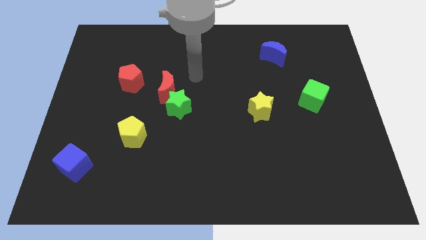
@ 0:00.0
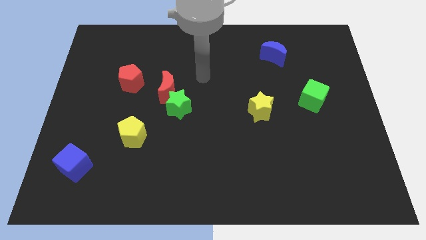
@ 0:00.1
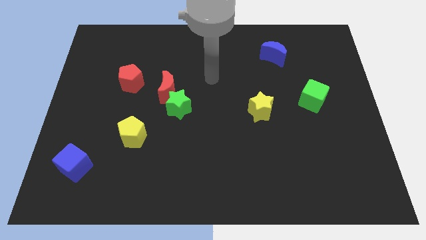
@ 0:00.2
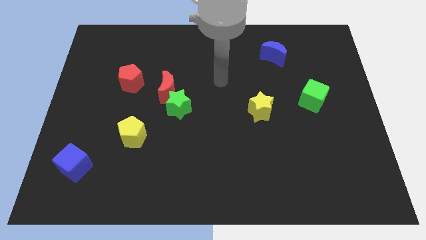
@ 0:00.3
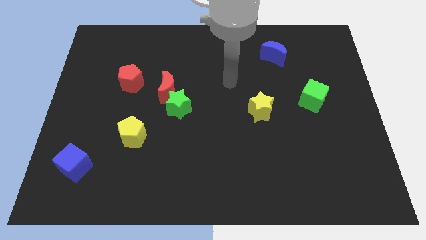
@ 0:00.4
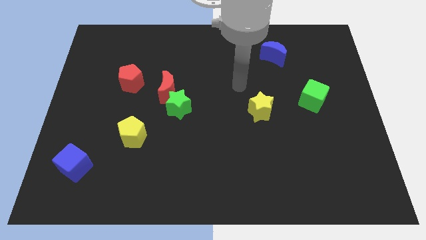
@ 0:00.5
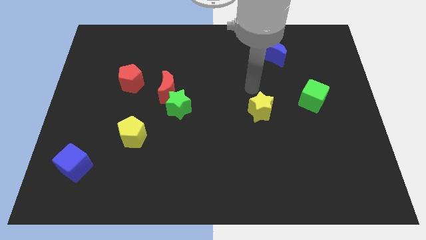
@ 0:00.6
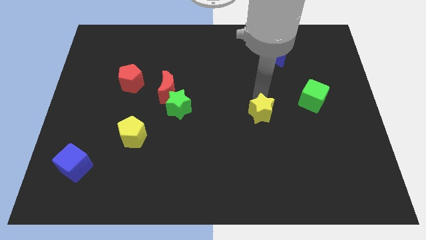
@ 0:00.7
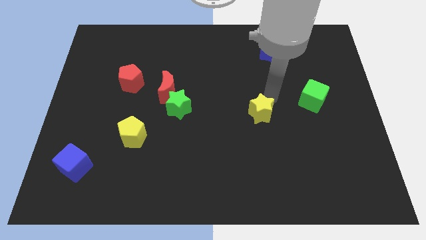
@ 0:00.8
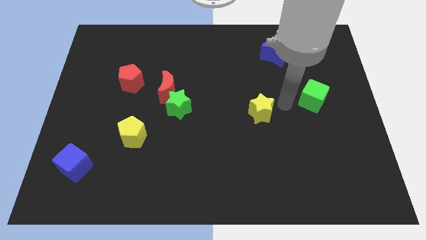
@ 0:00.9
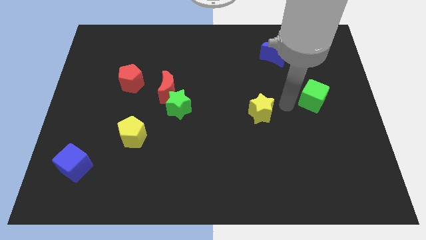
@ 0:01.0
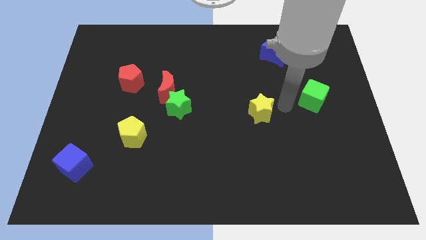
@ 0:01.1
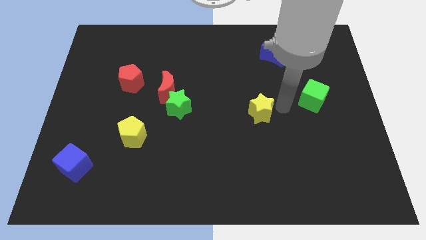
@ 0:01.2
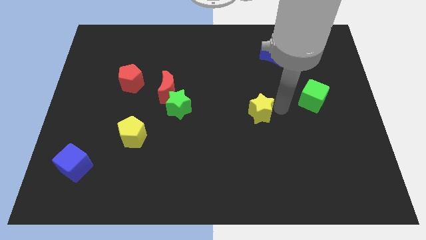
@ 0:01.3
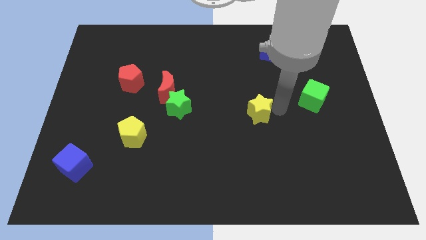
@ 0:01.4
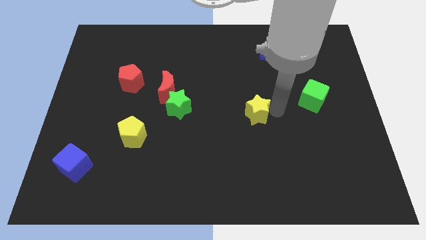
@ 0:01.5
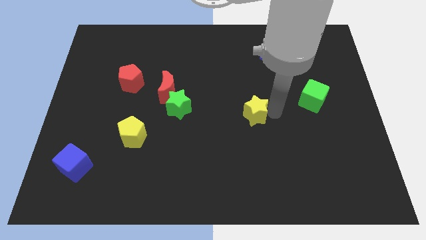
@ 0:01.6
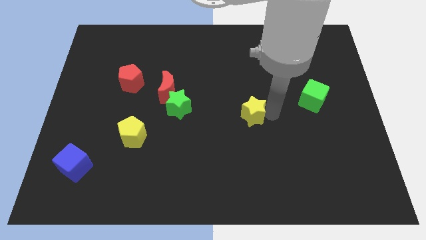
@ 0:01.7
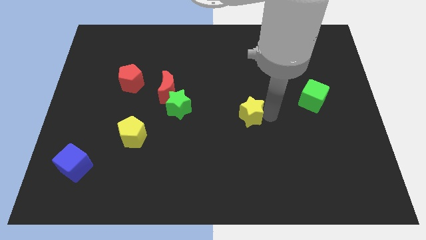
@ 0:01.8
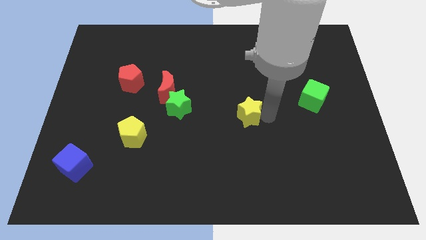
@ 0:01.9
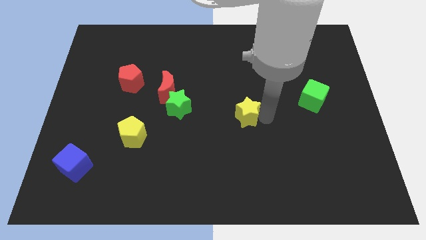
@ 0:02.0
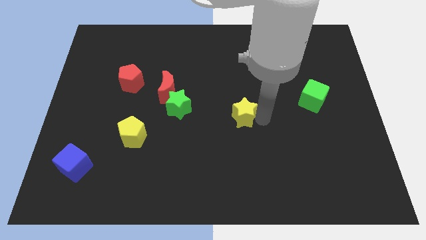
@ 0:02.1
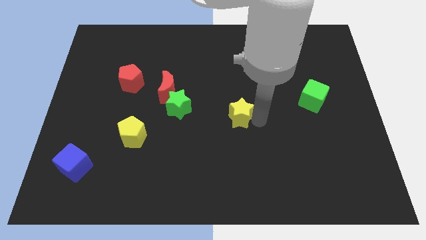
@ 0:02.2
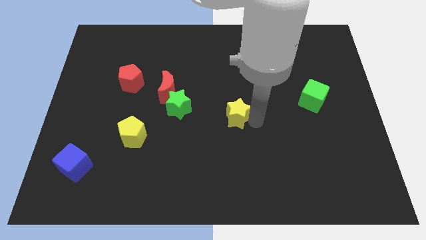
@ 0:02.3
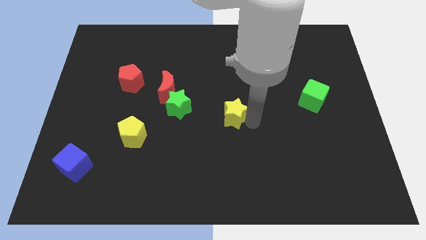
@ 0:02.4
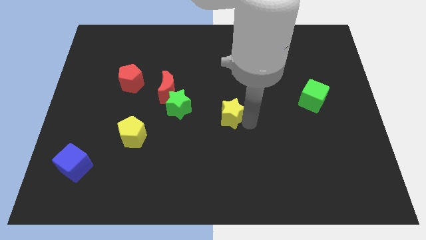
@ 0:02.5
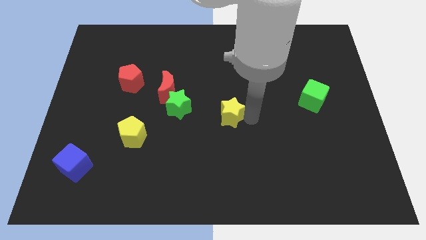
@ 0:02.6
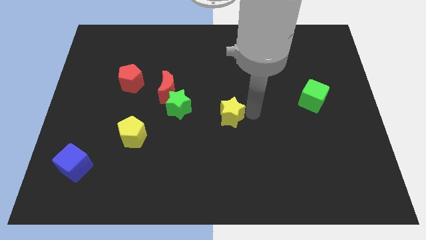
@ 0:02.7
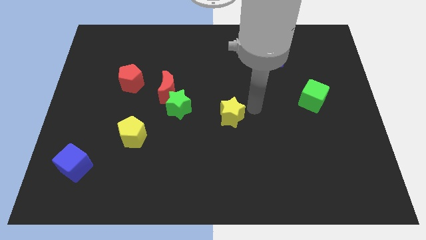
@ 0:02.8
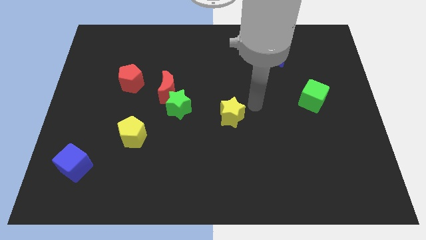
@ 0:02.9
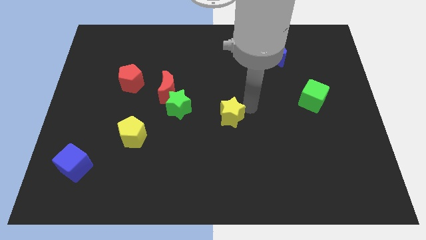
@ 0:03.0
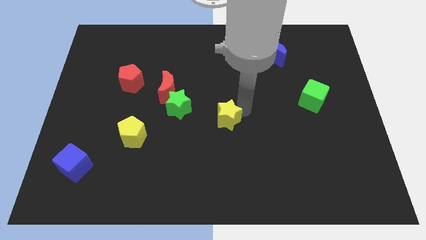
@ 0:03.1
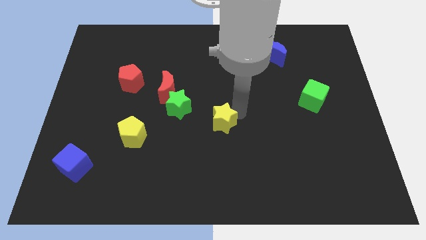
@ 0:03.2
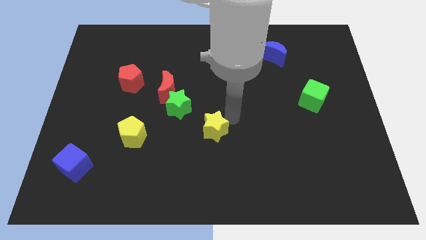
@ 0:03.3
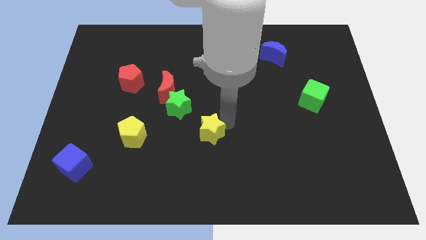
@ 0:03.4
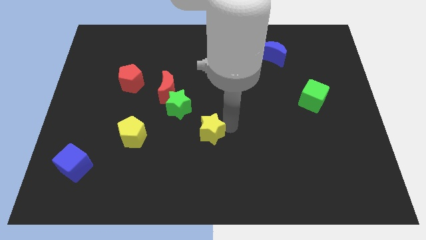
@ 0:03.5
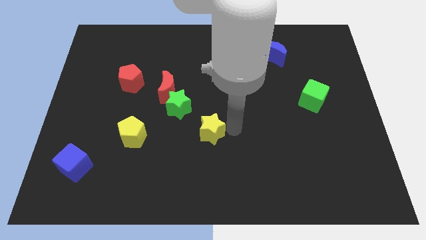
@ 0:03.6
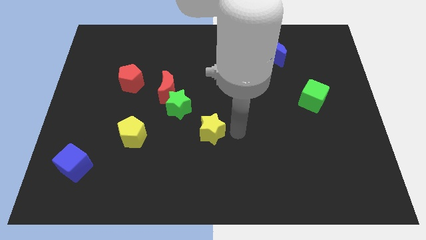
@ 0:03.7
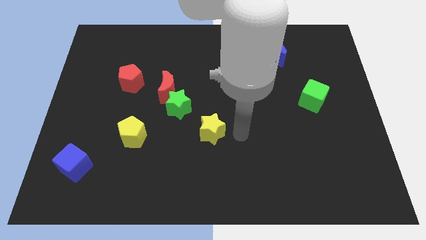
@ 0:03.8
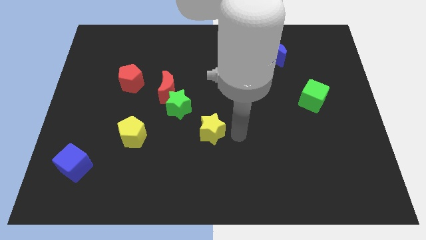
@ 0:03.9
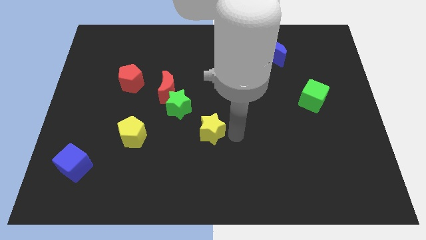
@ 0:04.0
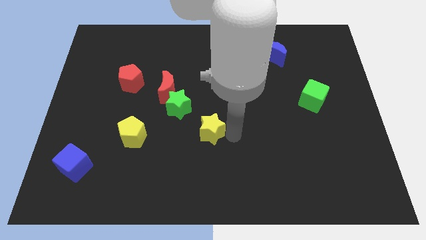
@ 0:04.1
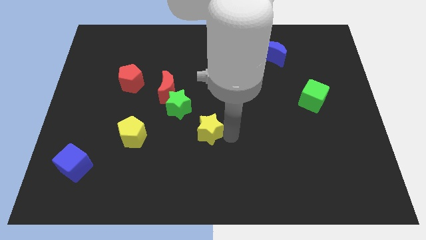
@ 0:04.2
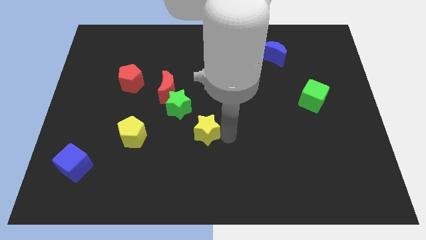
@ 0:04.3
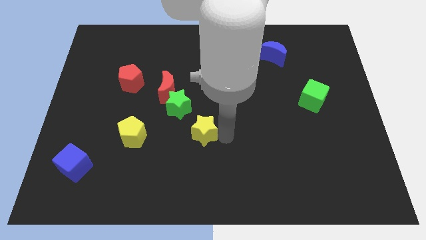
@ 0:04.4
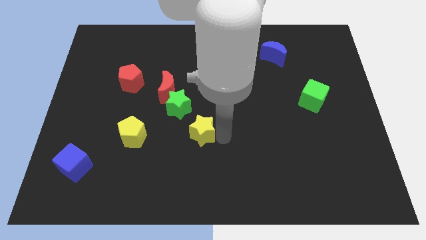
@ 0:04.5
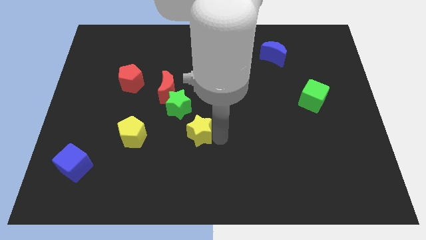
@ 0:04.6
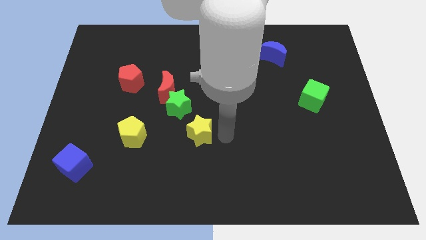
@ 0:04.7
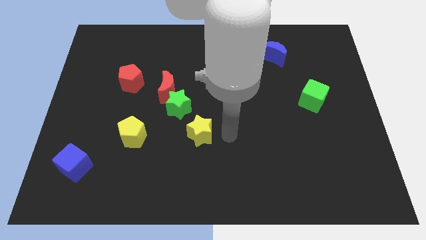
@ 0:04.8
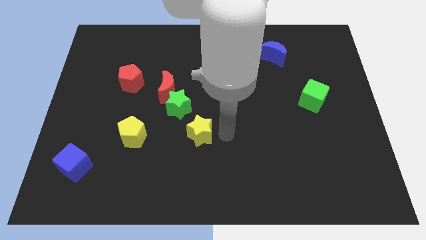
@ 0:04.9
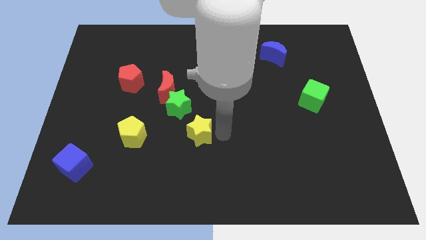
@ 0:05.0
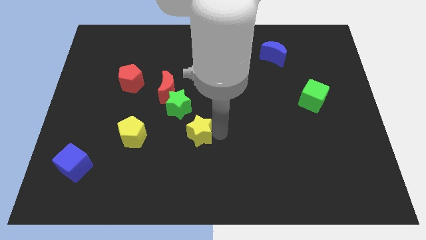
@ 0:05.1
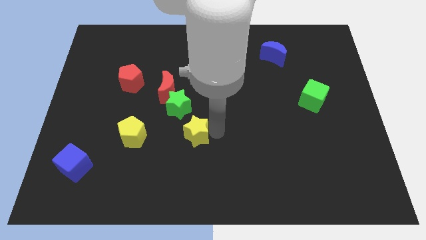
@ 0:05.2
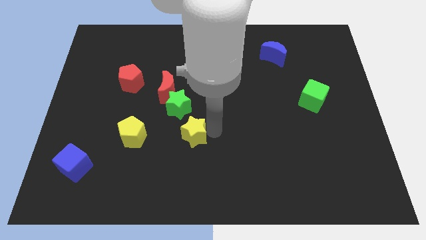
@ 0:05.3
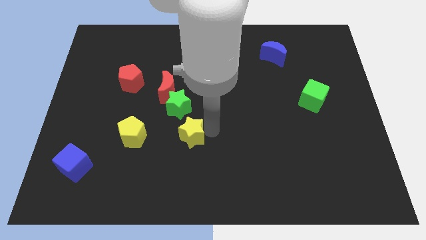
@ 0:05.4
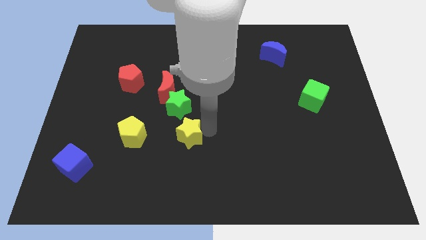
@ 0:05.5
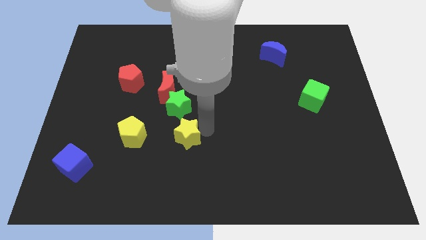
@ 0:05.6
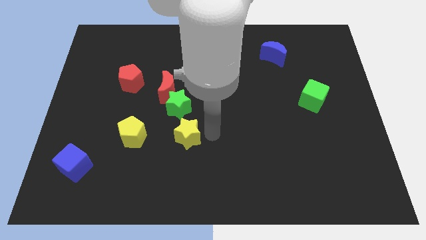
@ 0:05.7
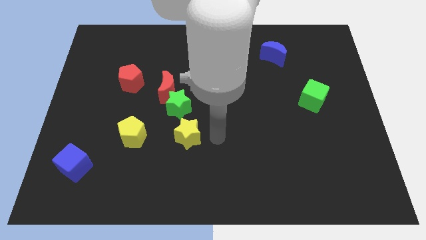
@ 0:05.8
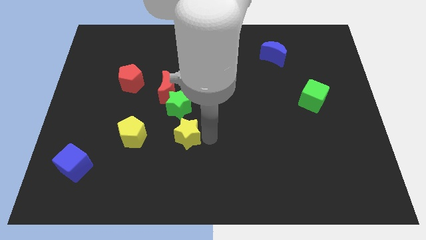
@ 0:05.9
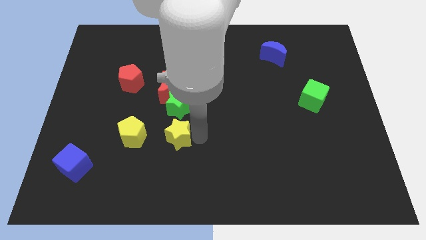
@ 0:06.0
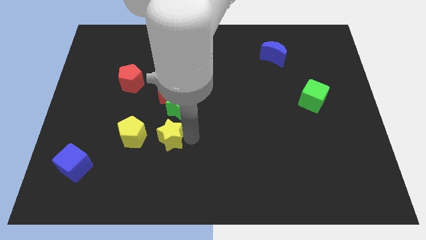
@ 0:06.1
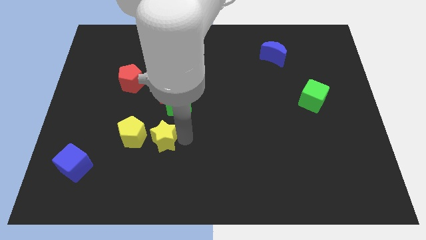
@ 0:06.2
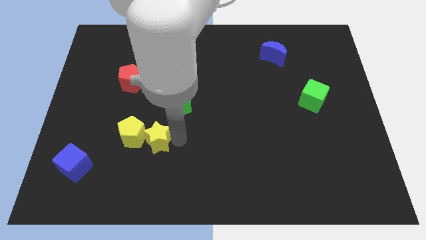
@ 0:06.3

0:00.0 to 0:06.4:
put the yellow star next to the yellow pentagon

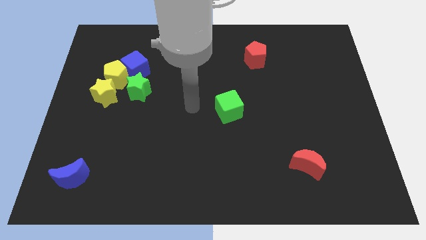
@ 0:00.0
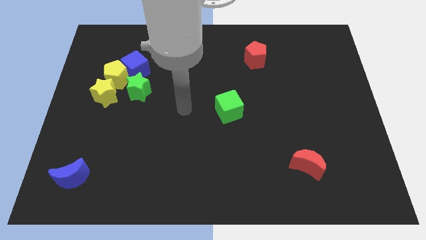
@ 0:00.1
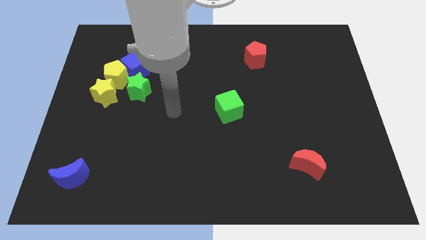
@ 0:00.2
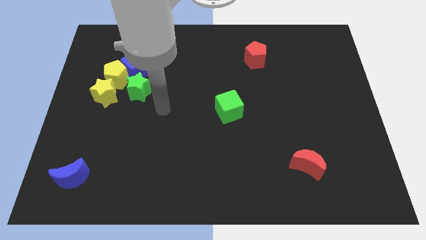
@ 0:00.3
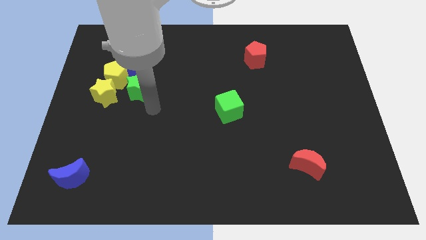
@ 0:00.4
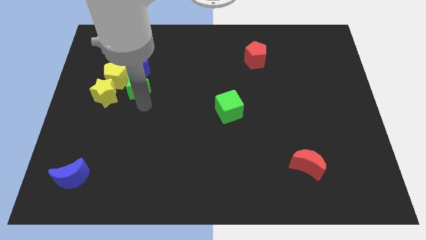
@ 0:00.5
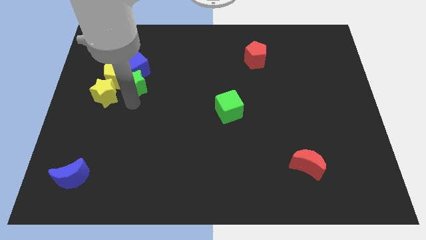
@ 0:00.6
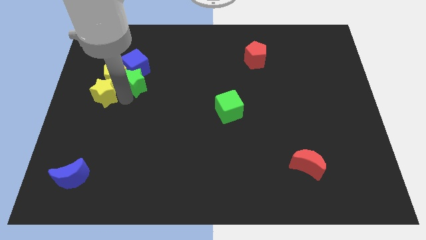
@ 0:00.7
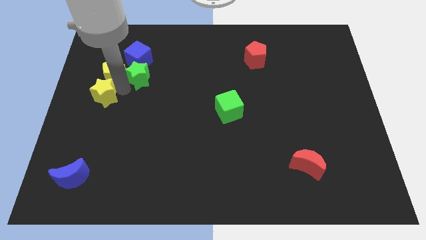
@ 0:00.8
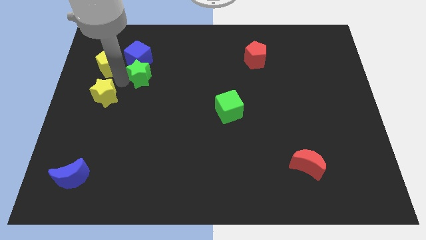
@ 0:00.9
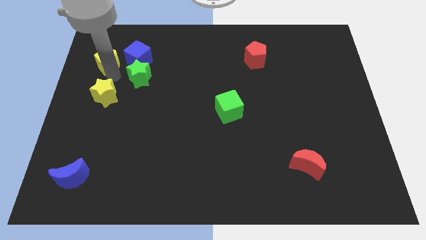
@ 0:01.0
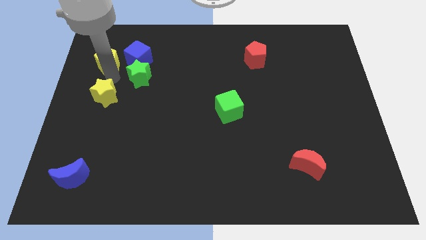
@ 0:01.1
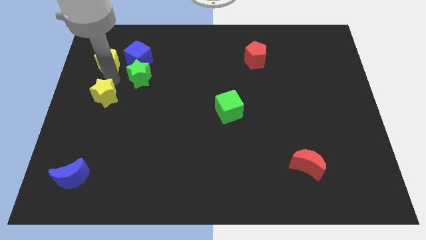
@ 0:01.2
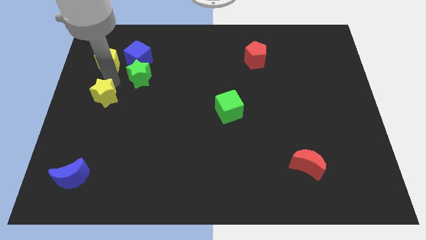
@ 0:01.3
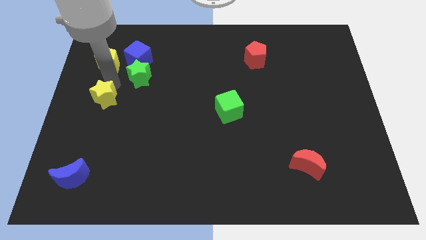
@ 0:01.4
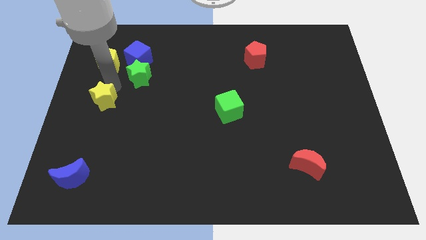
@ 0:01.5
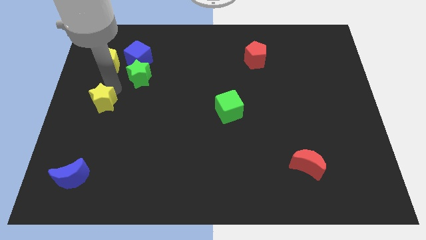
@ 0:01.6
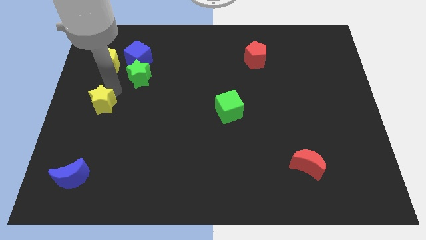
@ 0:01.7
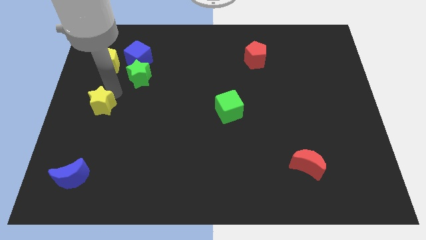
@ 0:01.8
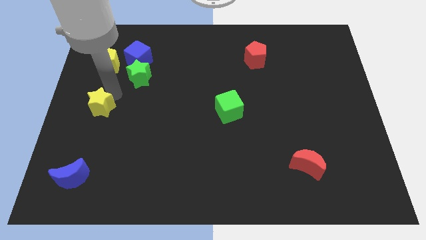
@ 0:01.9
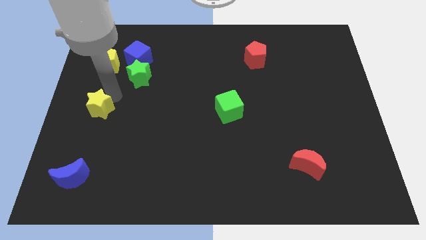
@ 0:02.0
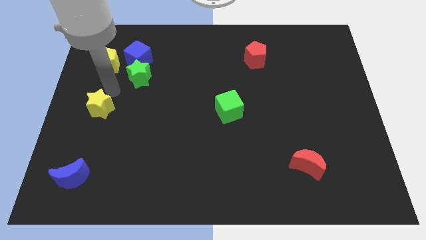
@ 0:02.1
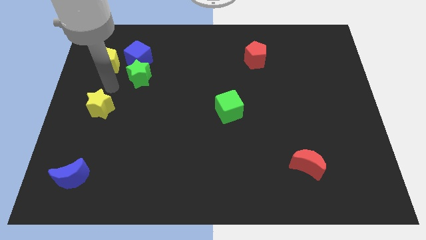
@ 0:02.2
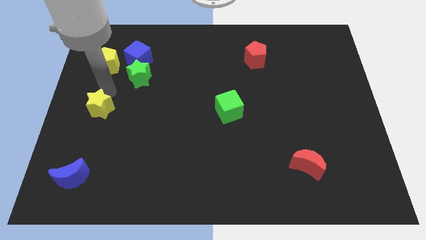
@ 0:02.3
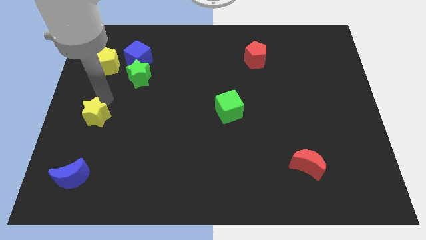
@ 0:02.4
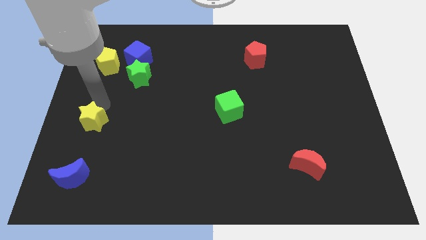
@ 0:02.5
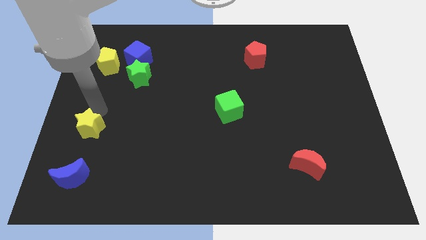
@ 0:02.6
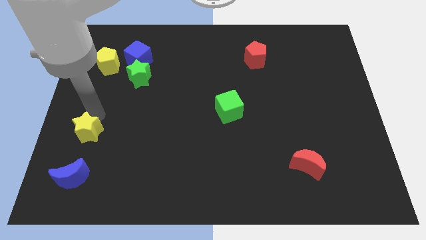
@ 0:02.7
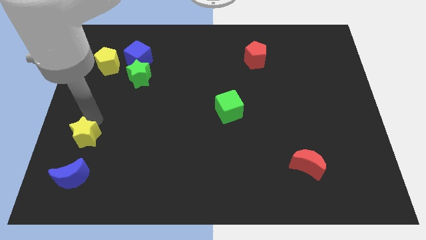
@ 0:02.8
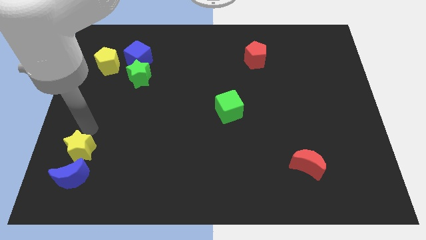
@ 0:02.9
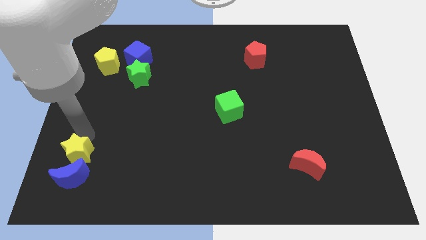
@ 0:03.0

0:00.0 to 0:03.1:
push the yellow star towards the blue moon
